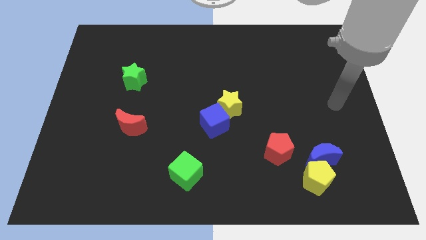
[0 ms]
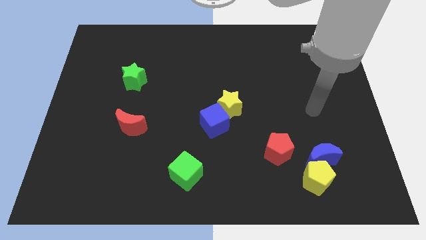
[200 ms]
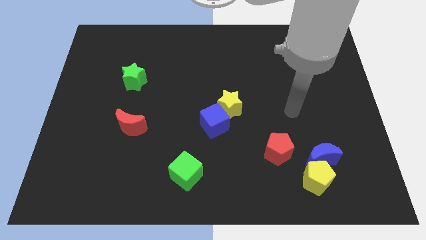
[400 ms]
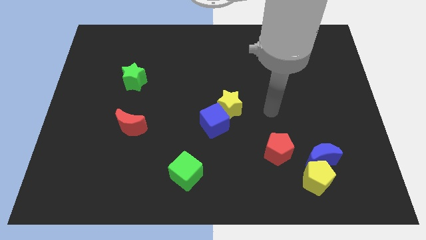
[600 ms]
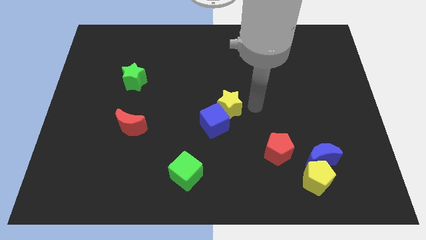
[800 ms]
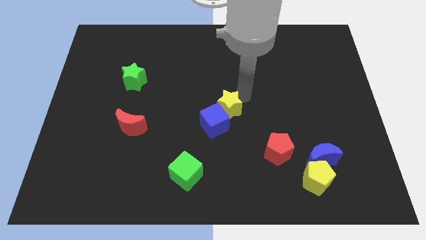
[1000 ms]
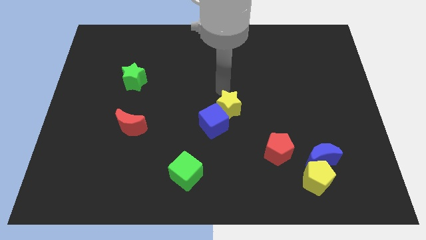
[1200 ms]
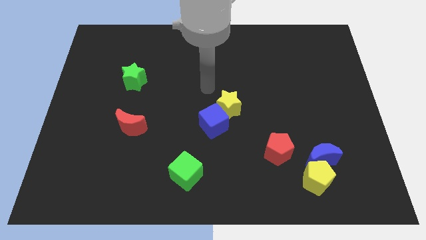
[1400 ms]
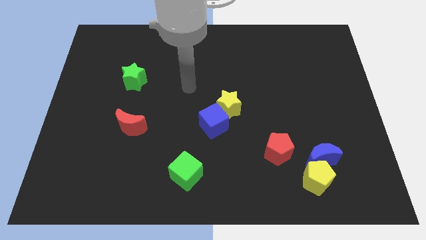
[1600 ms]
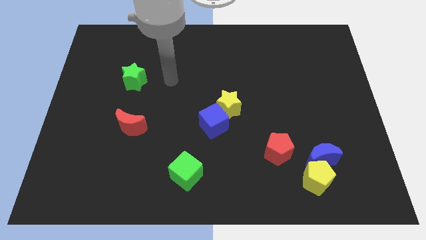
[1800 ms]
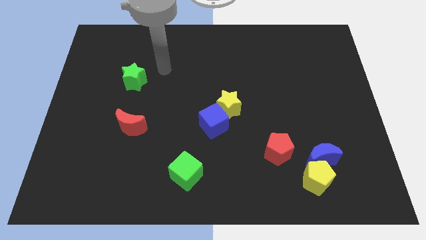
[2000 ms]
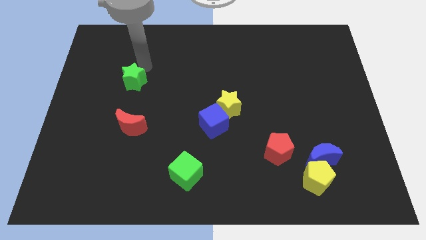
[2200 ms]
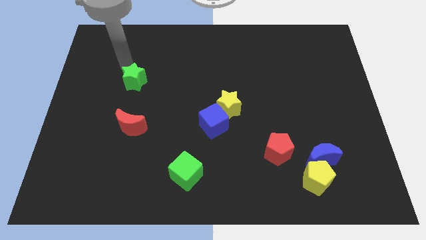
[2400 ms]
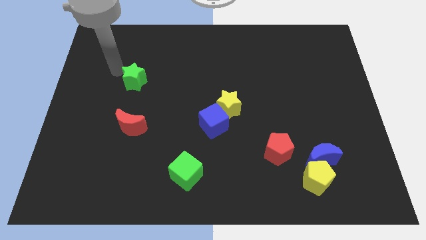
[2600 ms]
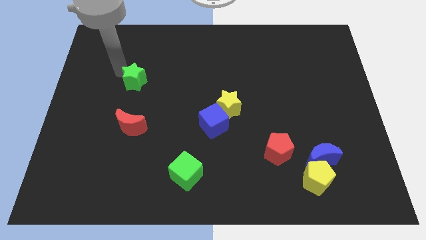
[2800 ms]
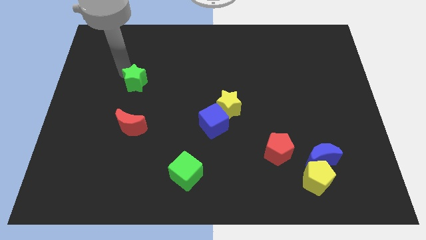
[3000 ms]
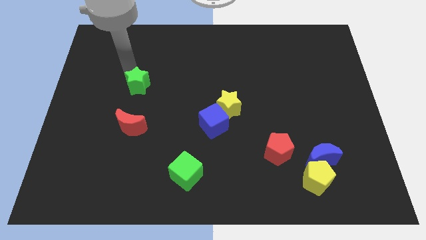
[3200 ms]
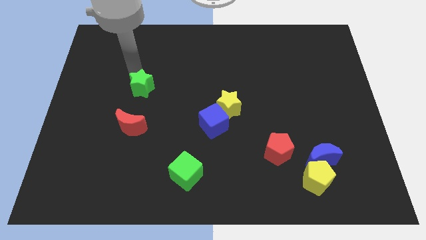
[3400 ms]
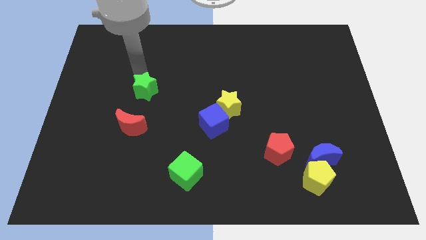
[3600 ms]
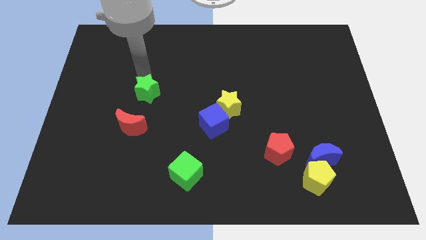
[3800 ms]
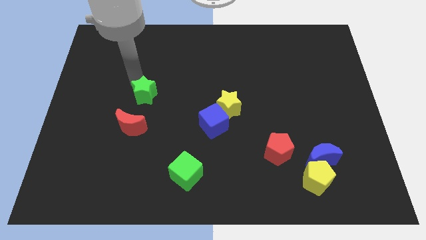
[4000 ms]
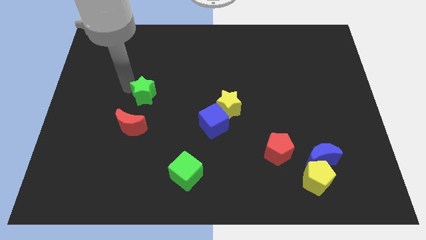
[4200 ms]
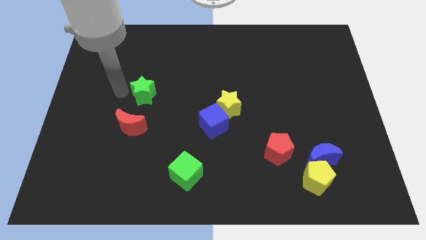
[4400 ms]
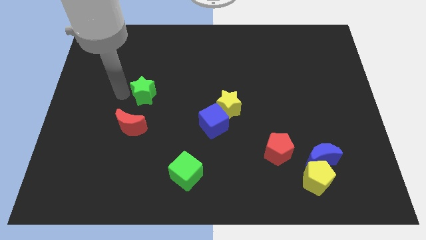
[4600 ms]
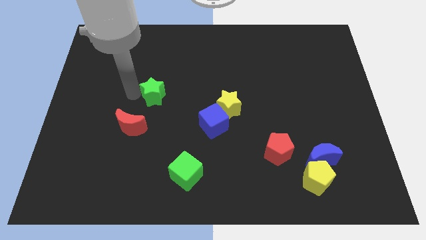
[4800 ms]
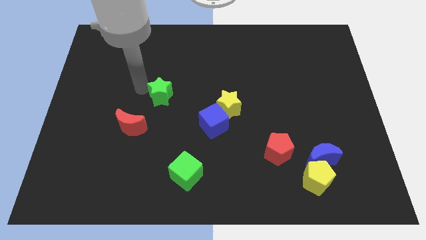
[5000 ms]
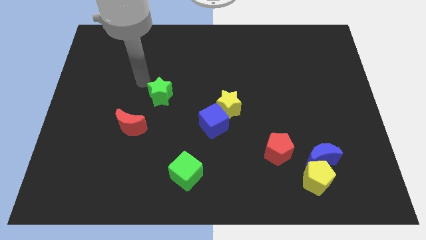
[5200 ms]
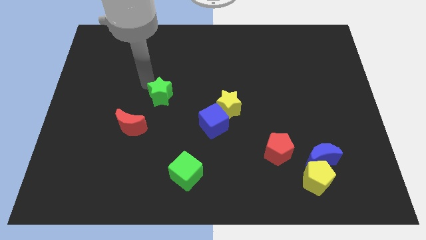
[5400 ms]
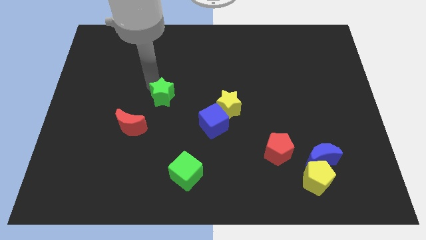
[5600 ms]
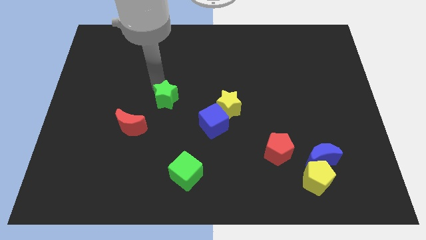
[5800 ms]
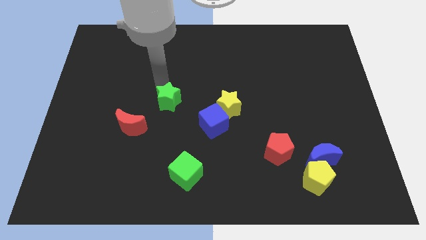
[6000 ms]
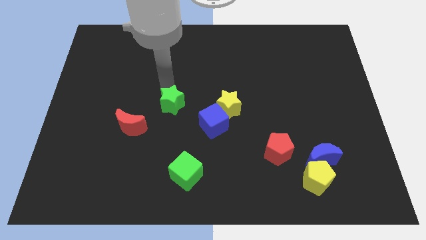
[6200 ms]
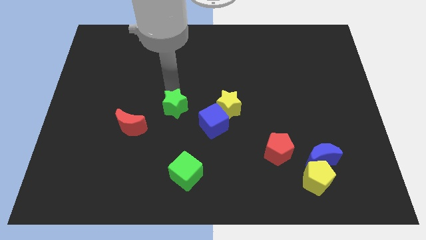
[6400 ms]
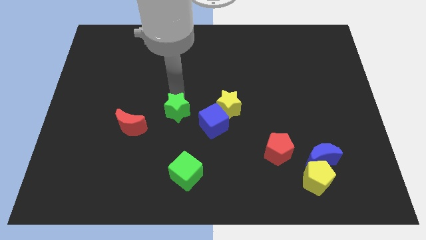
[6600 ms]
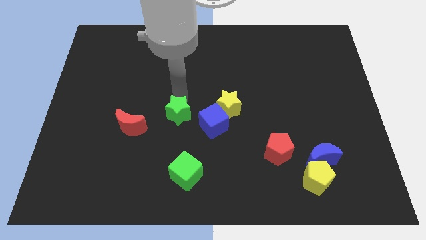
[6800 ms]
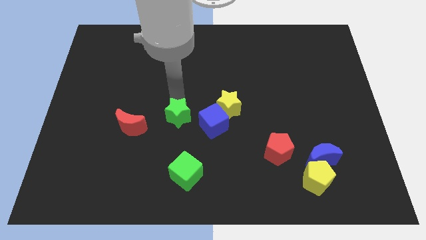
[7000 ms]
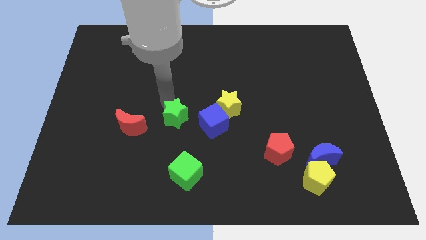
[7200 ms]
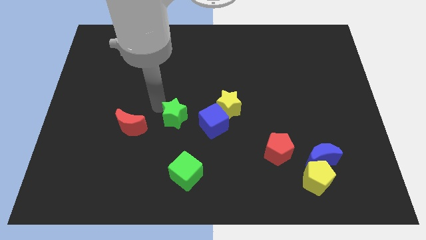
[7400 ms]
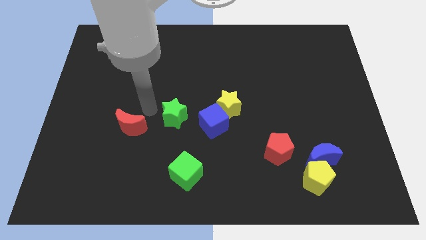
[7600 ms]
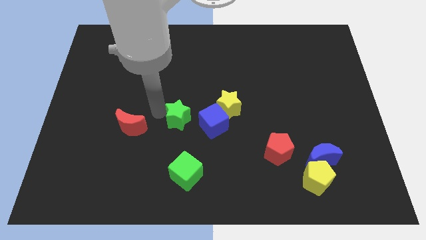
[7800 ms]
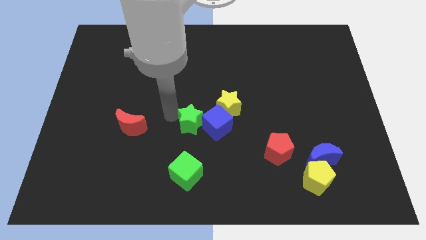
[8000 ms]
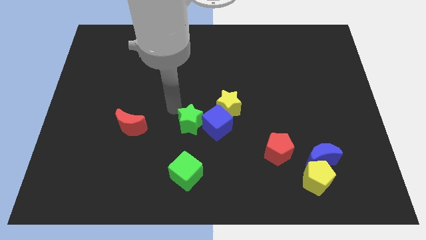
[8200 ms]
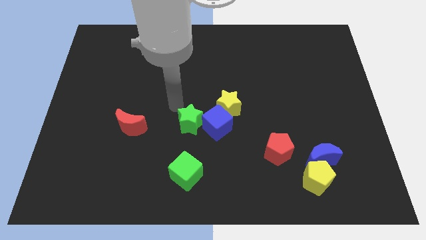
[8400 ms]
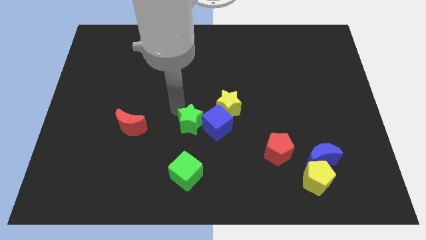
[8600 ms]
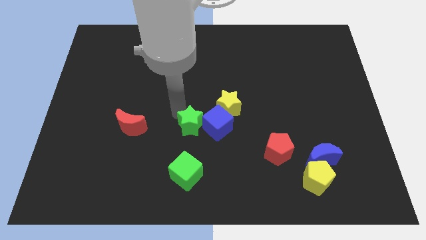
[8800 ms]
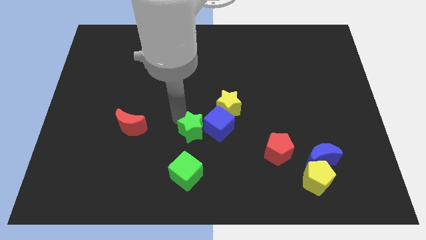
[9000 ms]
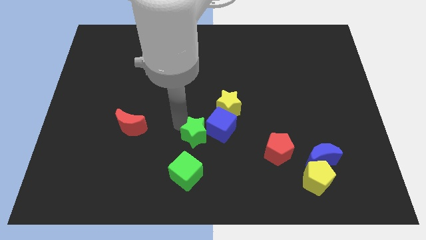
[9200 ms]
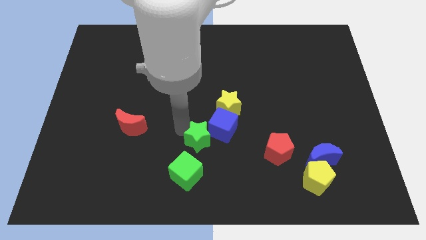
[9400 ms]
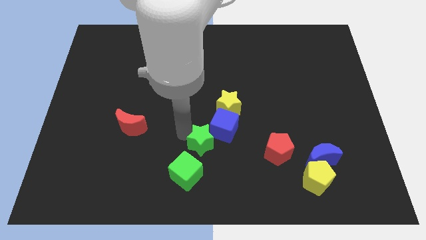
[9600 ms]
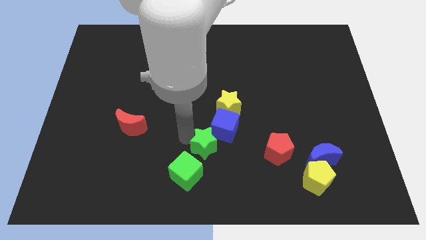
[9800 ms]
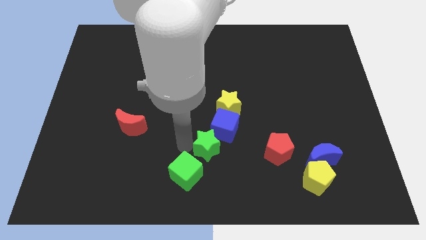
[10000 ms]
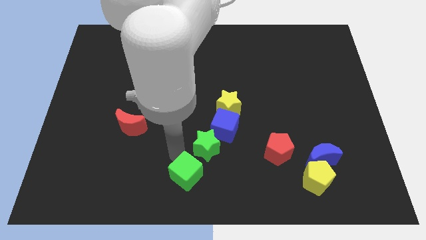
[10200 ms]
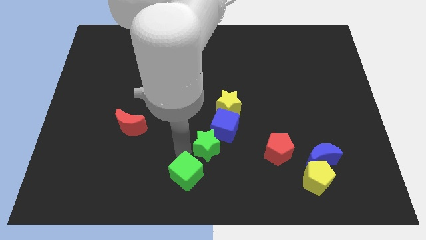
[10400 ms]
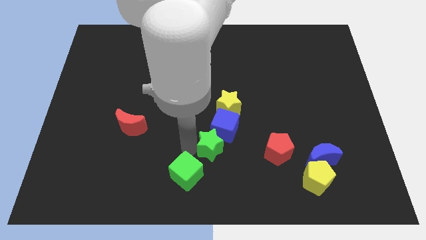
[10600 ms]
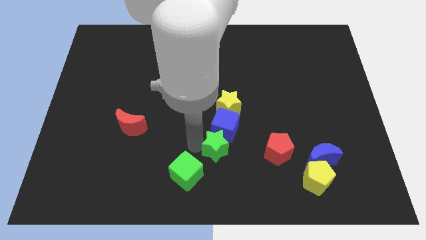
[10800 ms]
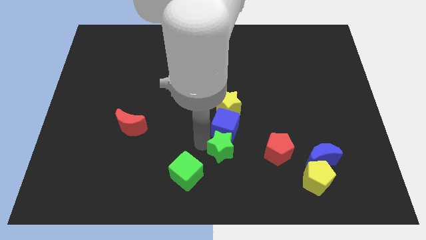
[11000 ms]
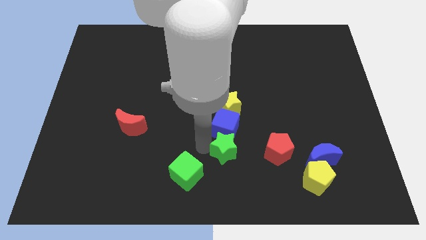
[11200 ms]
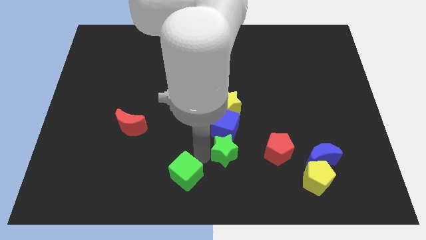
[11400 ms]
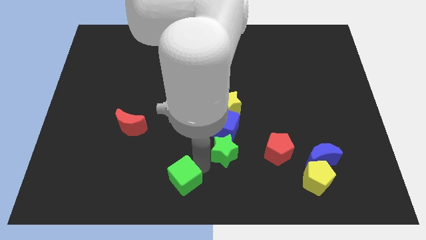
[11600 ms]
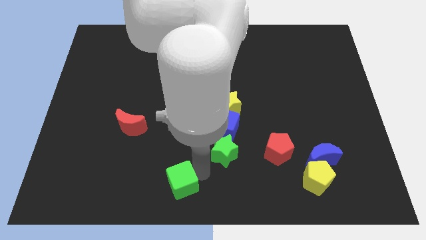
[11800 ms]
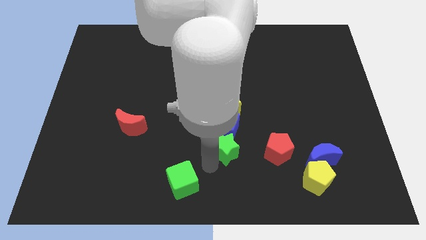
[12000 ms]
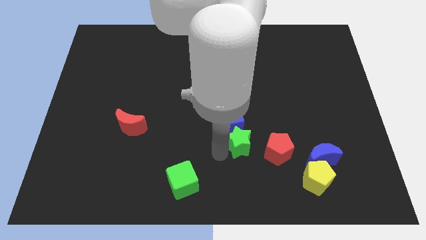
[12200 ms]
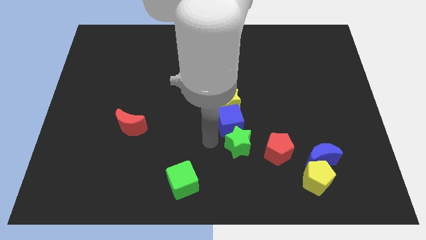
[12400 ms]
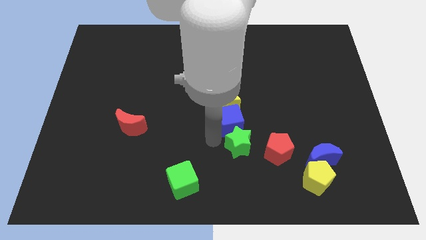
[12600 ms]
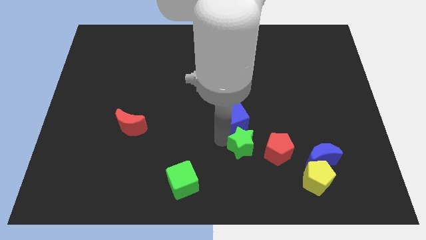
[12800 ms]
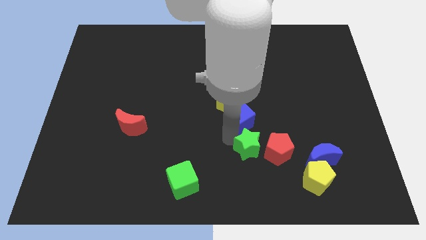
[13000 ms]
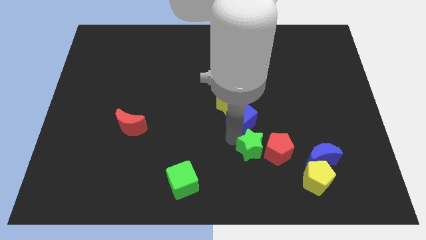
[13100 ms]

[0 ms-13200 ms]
move the green star next to the red pentagon

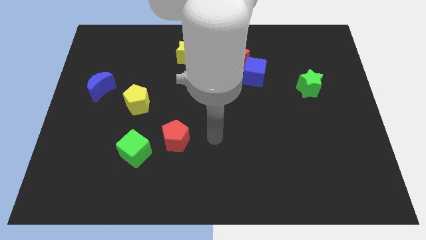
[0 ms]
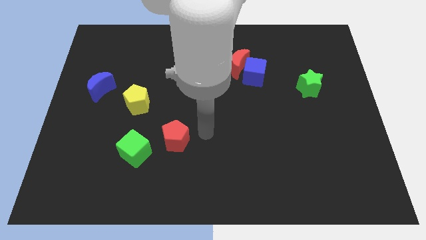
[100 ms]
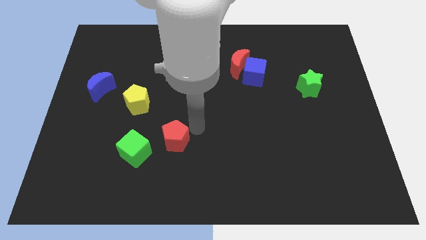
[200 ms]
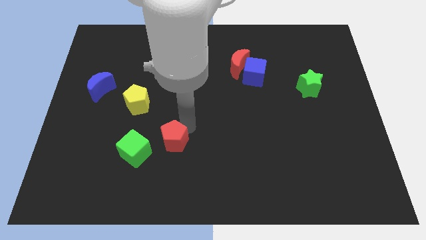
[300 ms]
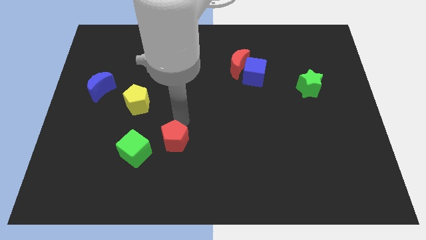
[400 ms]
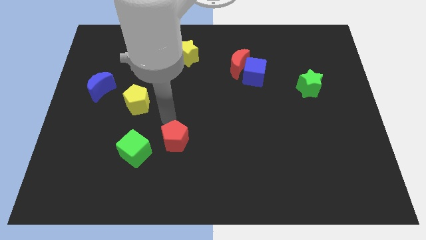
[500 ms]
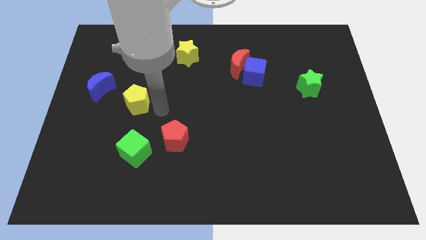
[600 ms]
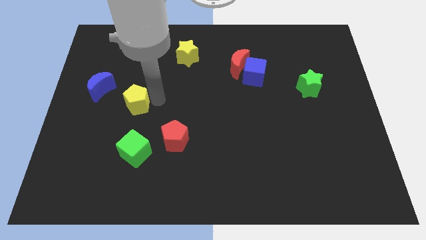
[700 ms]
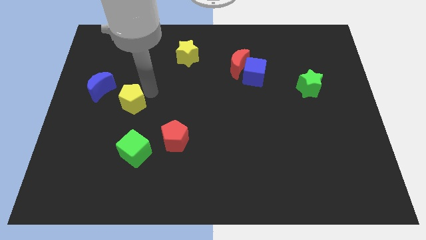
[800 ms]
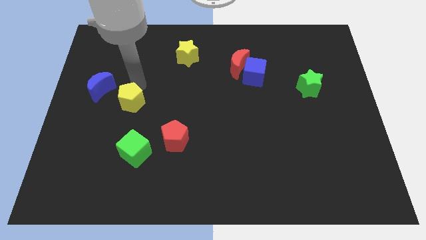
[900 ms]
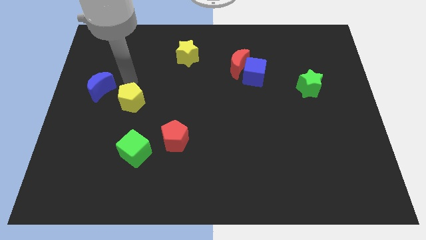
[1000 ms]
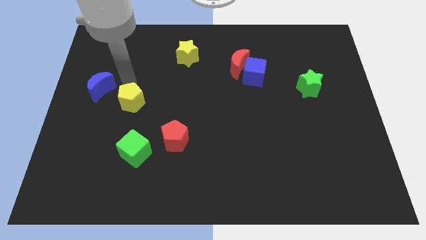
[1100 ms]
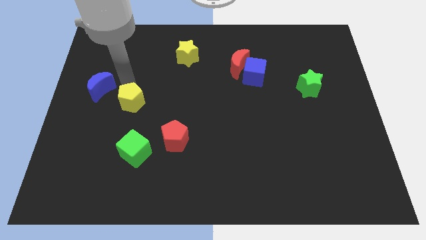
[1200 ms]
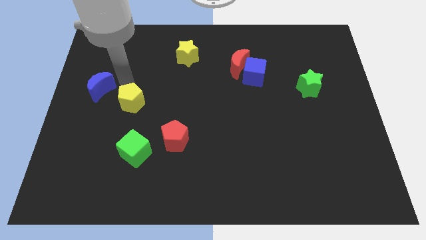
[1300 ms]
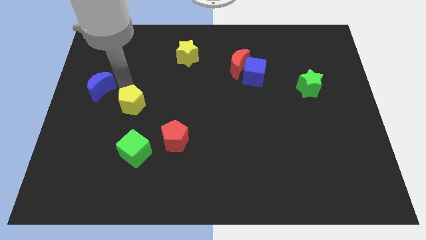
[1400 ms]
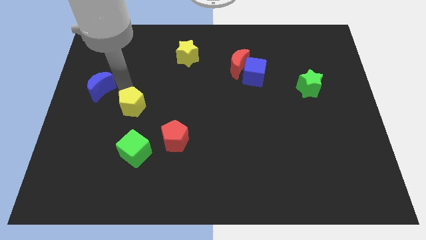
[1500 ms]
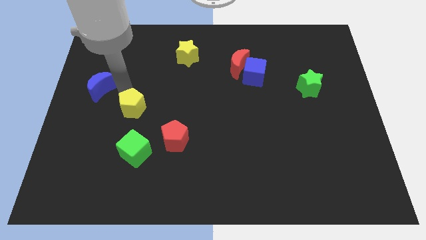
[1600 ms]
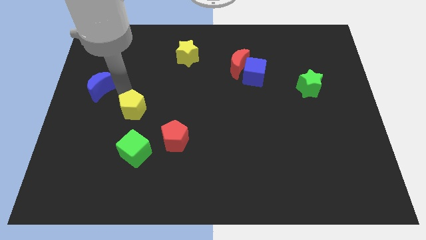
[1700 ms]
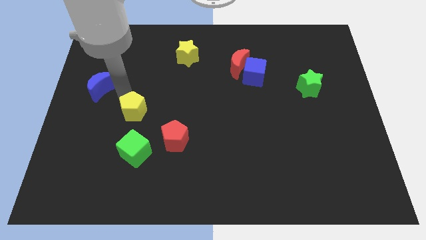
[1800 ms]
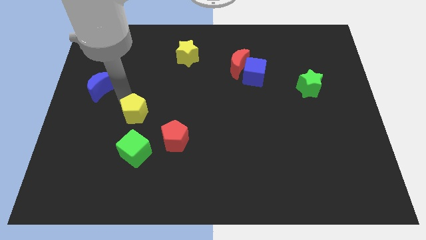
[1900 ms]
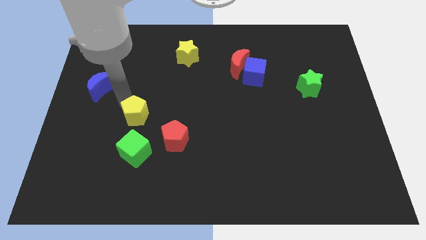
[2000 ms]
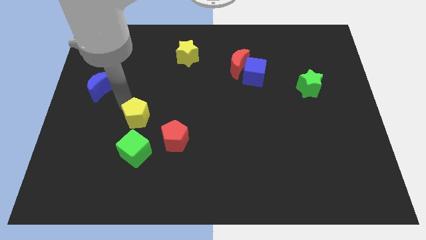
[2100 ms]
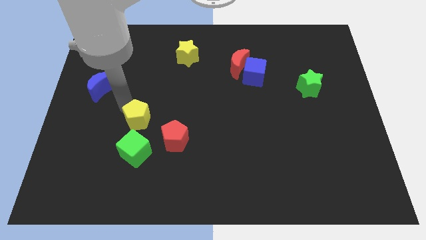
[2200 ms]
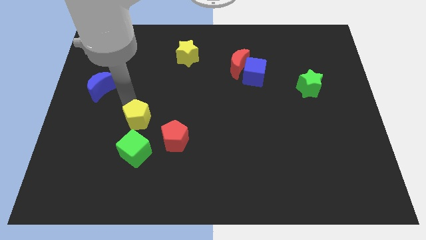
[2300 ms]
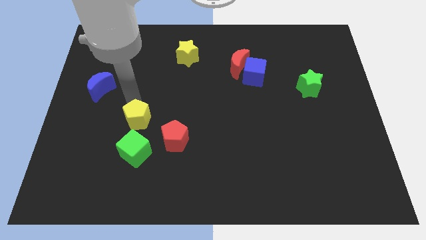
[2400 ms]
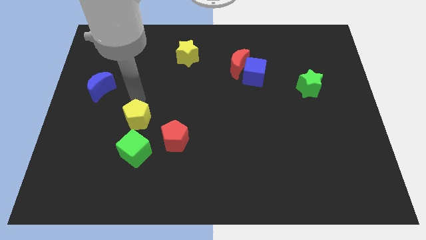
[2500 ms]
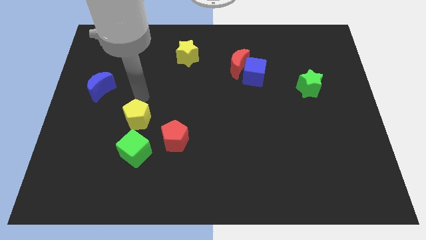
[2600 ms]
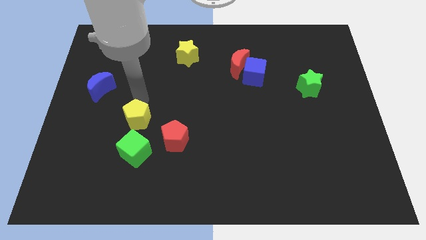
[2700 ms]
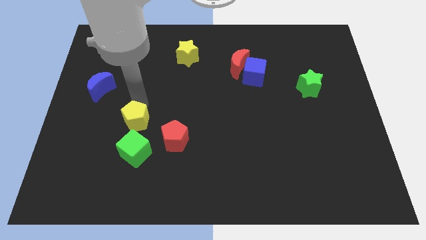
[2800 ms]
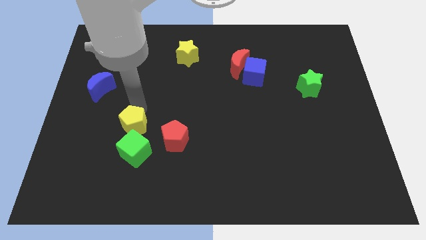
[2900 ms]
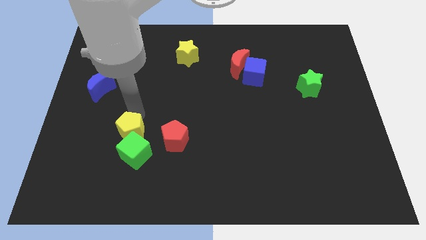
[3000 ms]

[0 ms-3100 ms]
move the yellow pentagon towards the green cube
